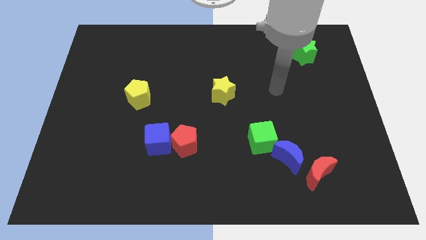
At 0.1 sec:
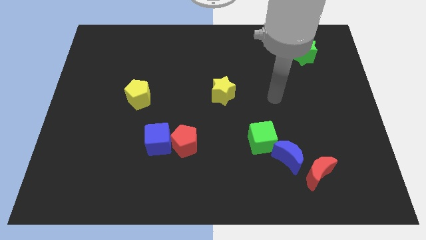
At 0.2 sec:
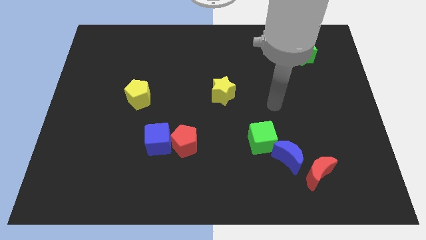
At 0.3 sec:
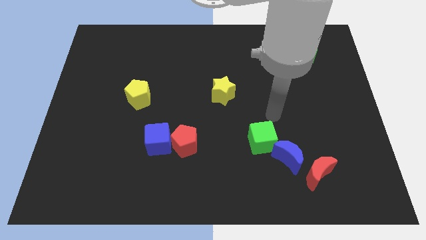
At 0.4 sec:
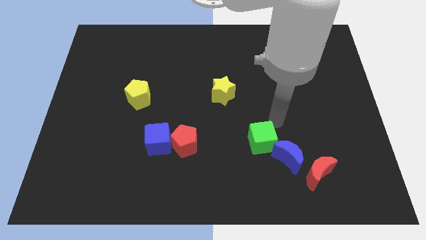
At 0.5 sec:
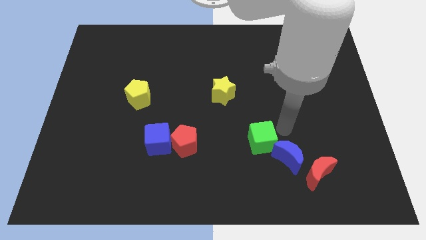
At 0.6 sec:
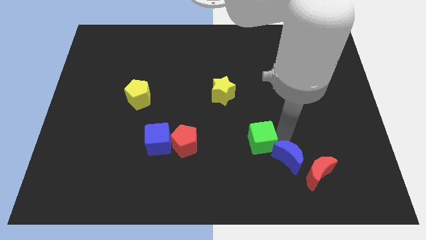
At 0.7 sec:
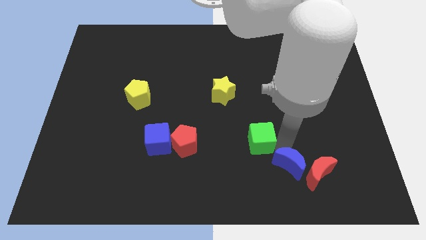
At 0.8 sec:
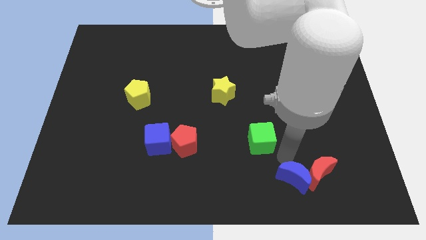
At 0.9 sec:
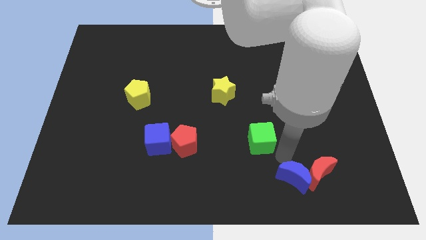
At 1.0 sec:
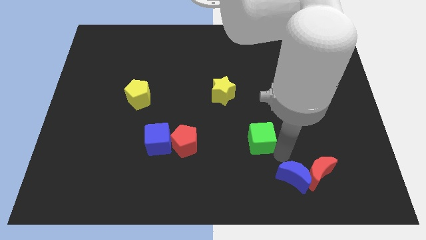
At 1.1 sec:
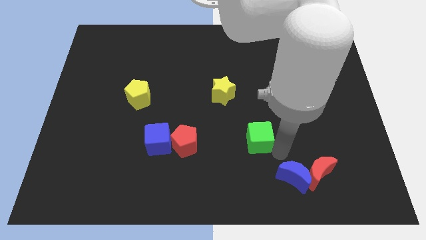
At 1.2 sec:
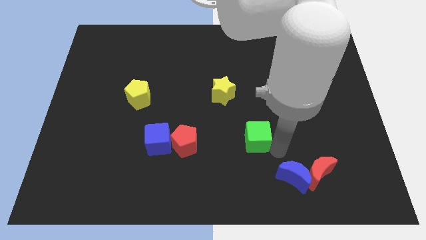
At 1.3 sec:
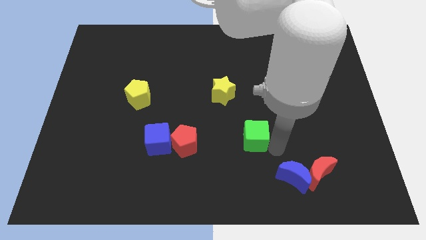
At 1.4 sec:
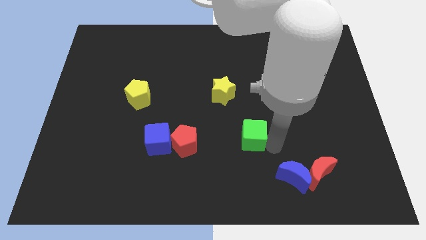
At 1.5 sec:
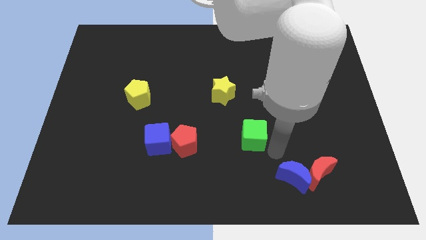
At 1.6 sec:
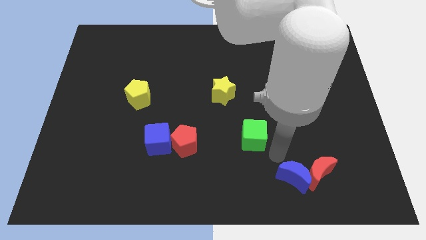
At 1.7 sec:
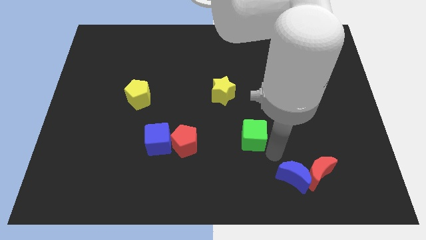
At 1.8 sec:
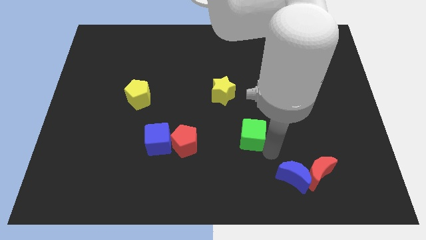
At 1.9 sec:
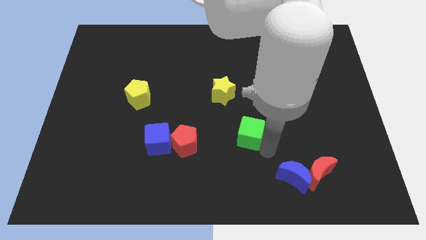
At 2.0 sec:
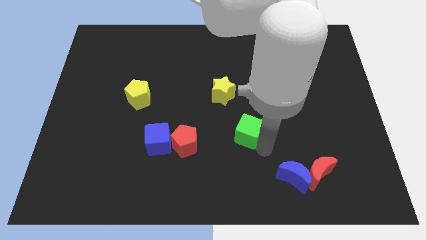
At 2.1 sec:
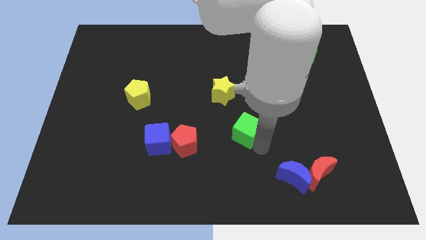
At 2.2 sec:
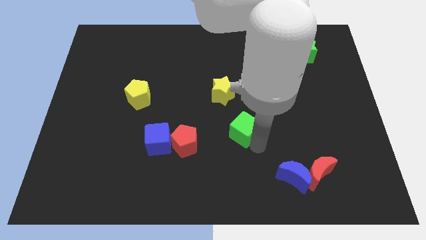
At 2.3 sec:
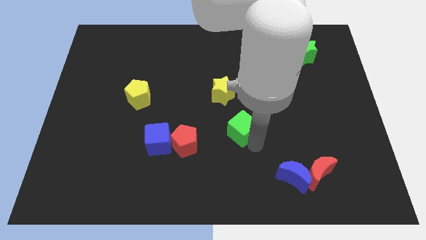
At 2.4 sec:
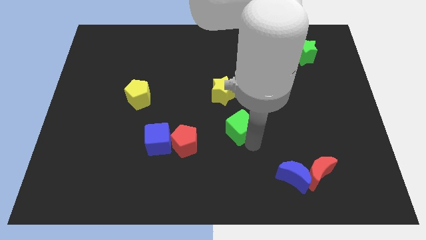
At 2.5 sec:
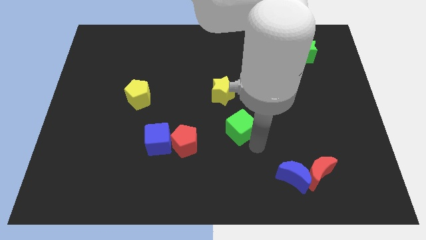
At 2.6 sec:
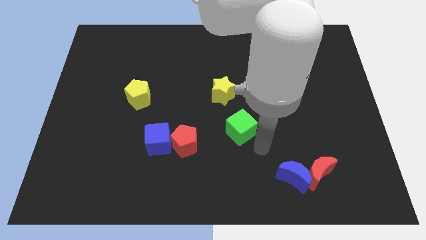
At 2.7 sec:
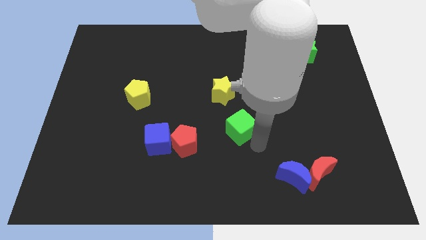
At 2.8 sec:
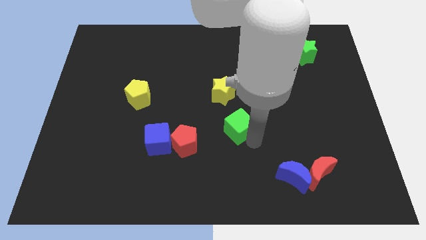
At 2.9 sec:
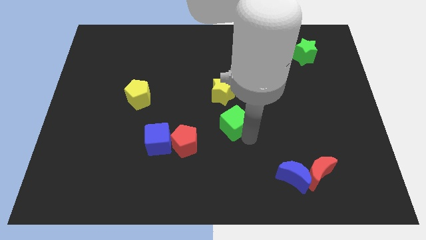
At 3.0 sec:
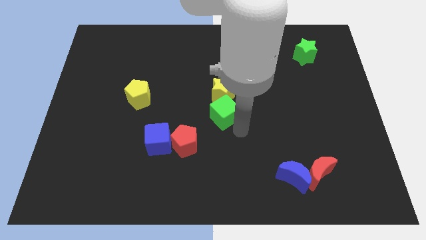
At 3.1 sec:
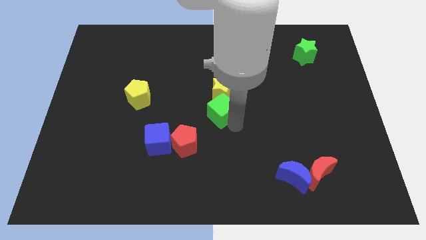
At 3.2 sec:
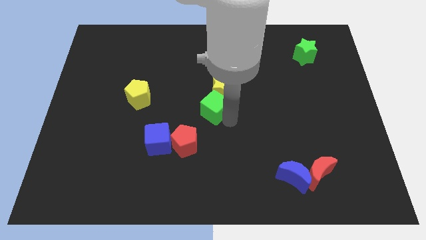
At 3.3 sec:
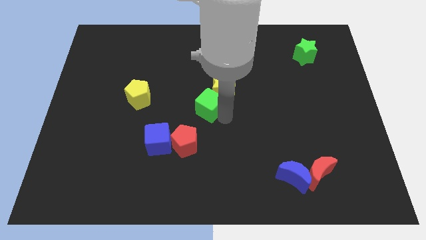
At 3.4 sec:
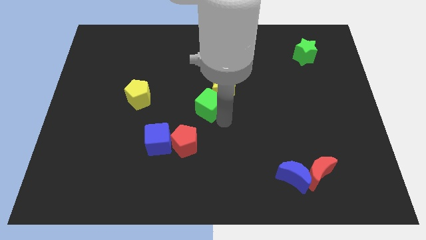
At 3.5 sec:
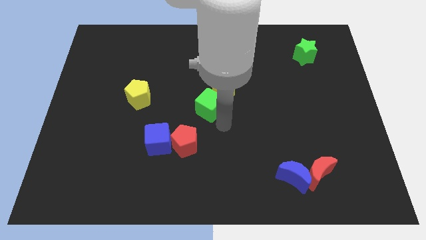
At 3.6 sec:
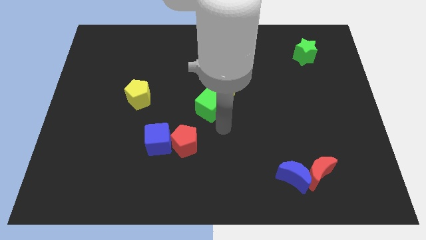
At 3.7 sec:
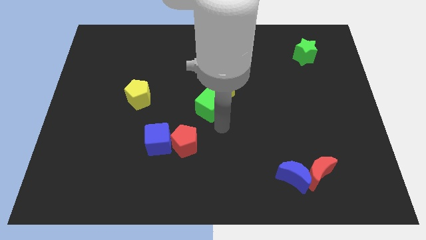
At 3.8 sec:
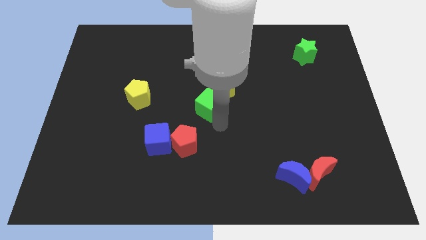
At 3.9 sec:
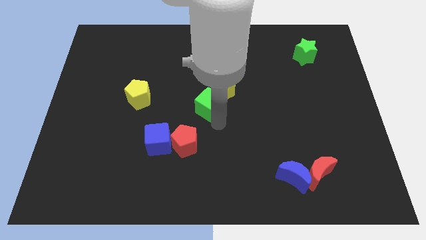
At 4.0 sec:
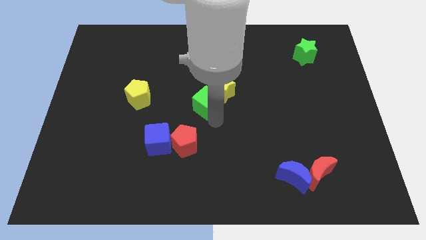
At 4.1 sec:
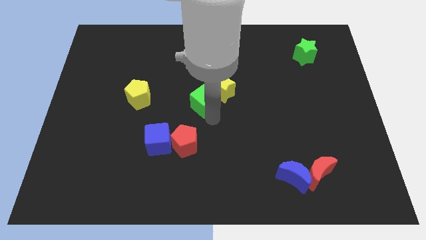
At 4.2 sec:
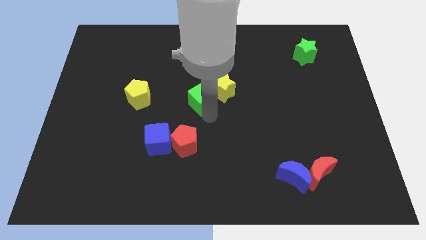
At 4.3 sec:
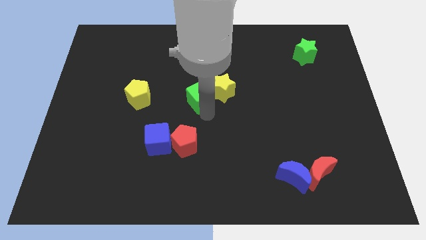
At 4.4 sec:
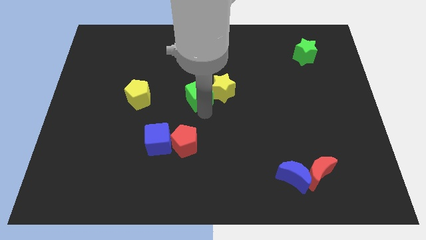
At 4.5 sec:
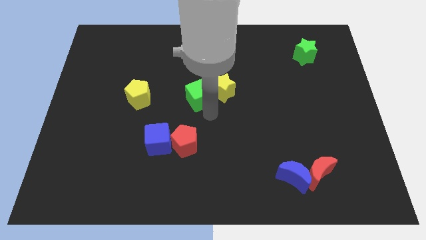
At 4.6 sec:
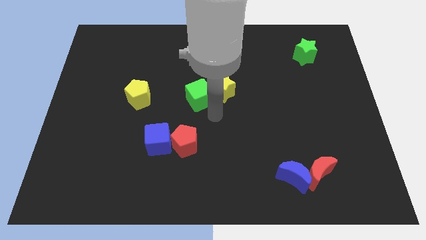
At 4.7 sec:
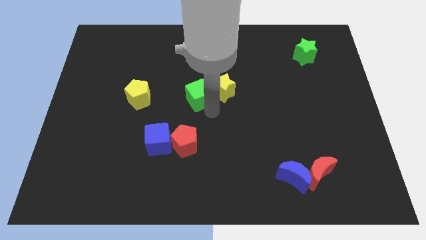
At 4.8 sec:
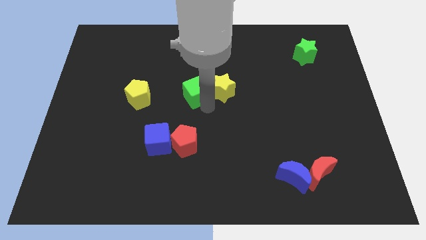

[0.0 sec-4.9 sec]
slide the green cube up and left diagonally

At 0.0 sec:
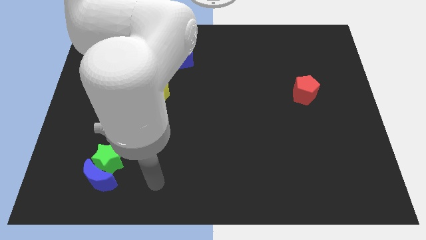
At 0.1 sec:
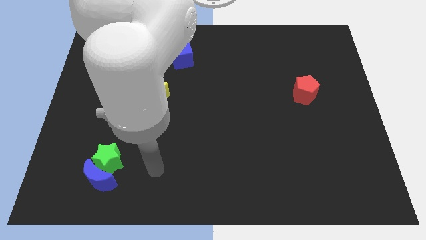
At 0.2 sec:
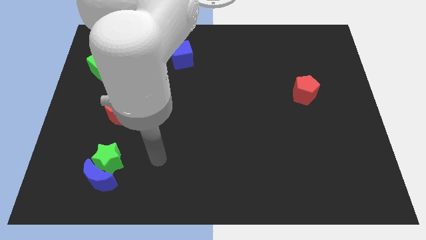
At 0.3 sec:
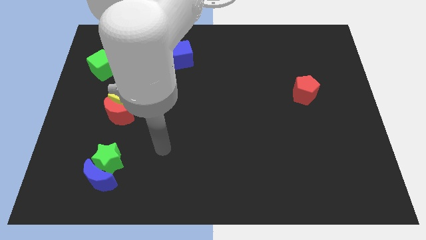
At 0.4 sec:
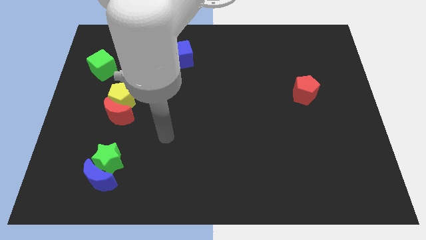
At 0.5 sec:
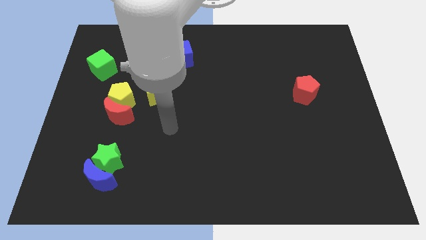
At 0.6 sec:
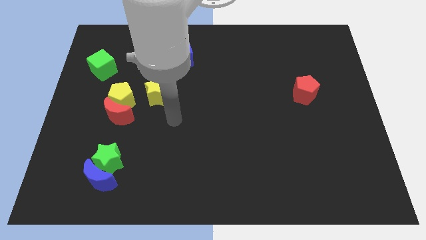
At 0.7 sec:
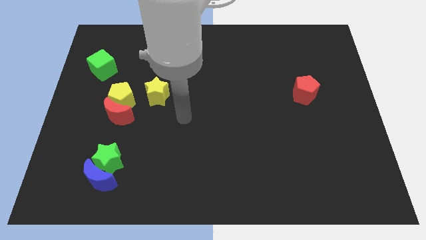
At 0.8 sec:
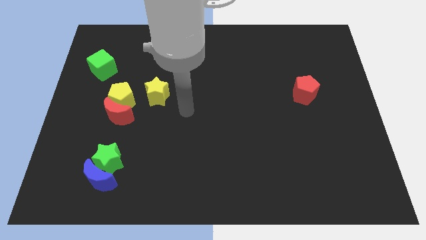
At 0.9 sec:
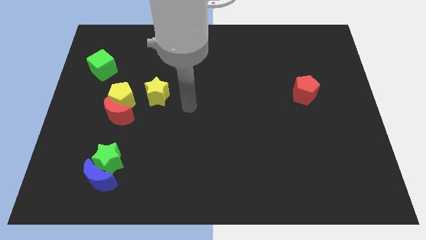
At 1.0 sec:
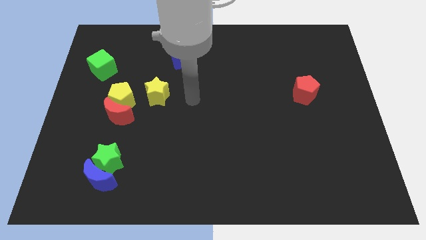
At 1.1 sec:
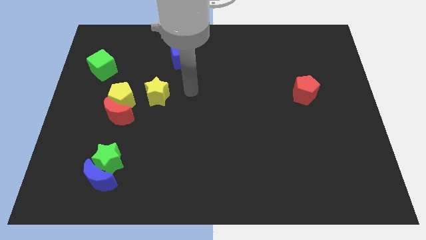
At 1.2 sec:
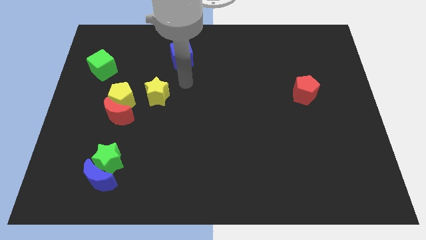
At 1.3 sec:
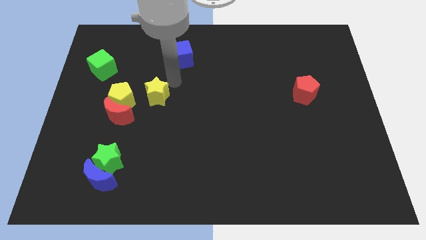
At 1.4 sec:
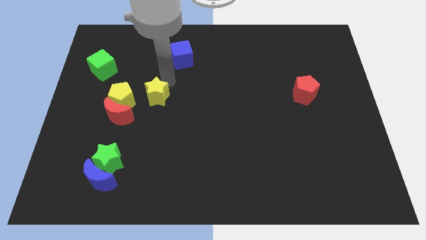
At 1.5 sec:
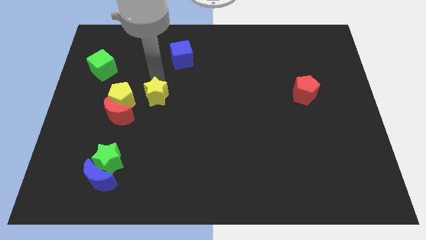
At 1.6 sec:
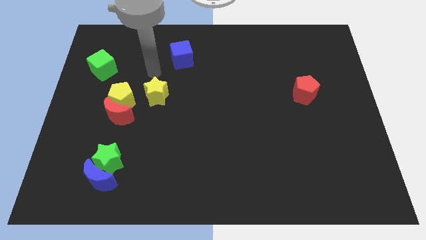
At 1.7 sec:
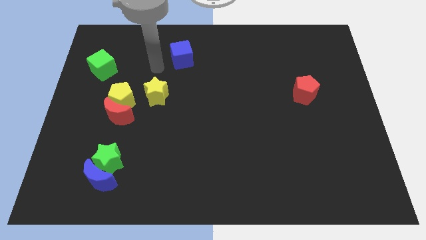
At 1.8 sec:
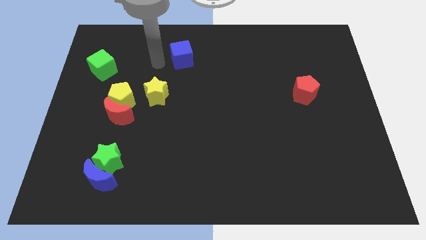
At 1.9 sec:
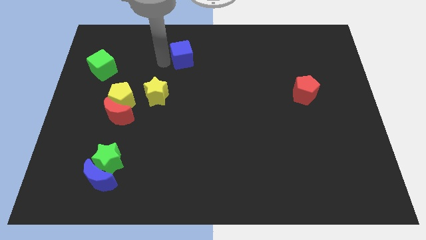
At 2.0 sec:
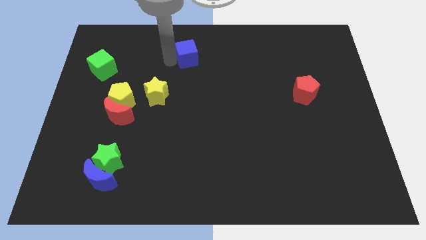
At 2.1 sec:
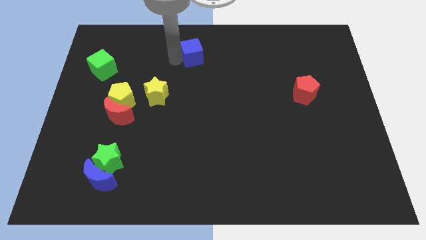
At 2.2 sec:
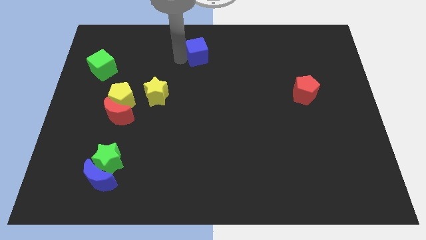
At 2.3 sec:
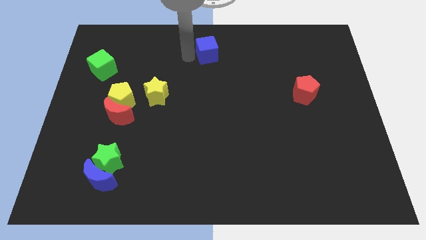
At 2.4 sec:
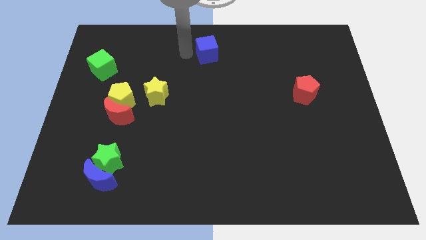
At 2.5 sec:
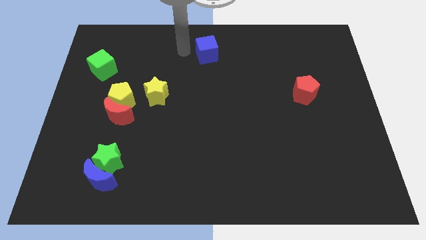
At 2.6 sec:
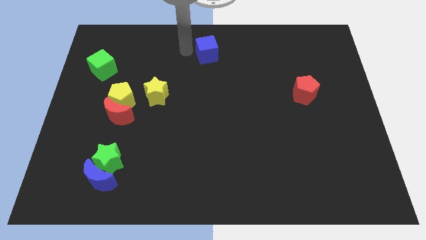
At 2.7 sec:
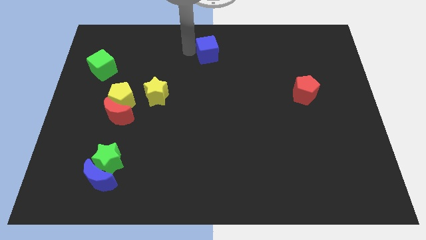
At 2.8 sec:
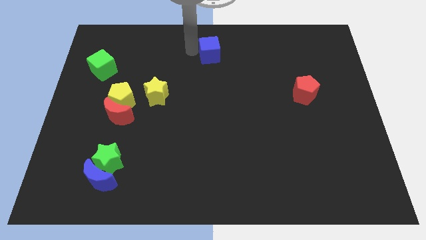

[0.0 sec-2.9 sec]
slightly slide the blue cube to the right
